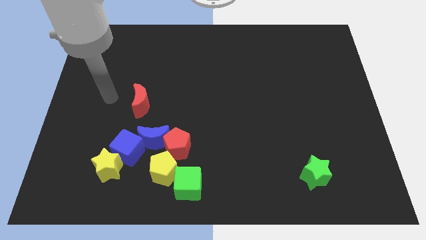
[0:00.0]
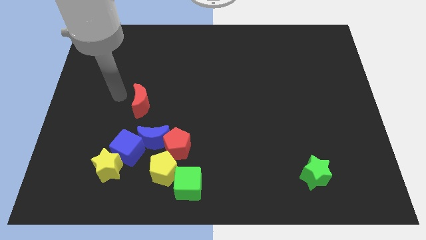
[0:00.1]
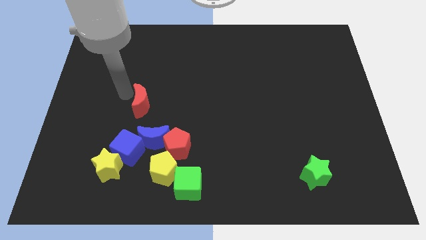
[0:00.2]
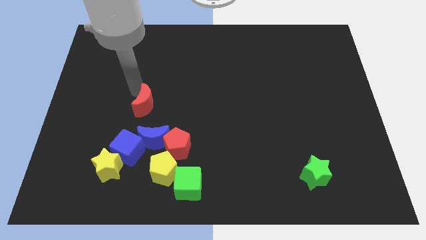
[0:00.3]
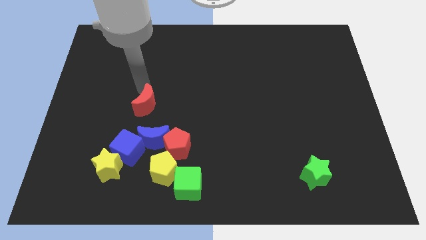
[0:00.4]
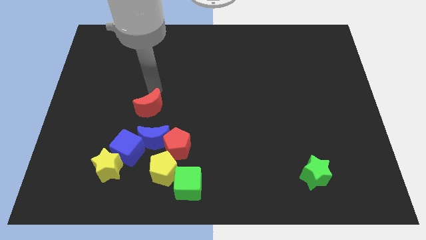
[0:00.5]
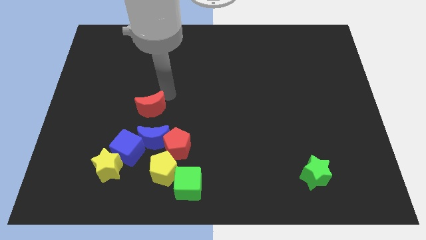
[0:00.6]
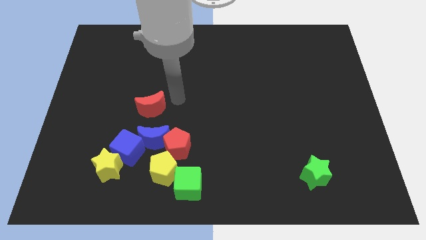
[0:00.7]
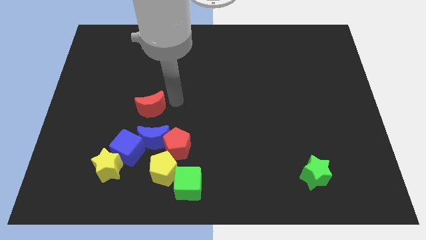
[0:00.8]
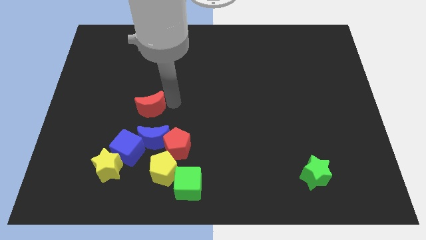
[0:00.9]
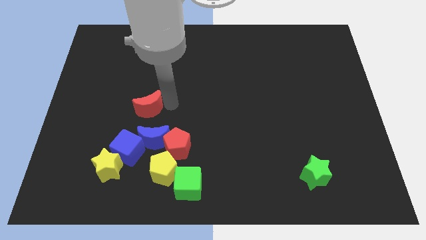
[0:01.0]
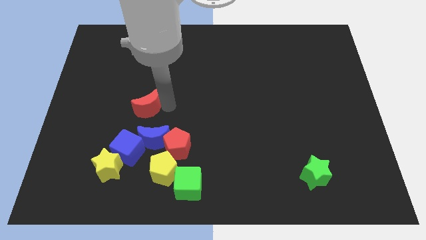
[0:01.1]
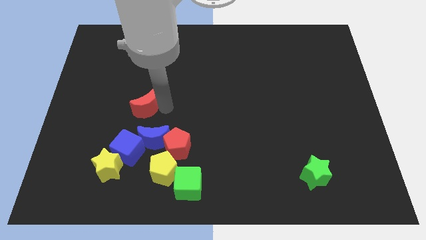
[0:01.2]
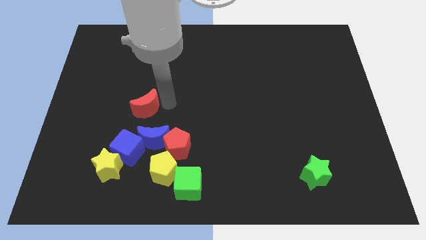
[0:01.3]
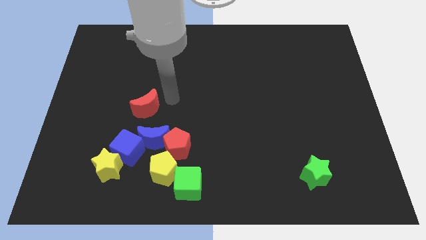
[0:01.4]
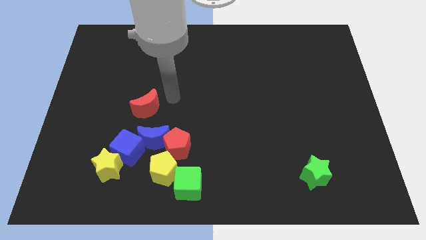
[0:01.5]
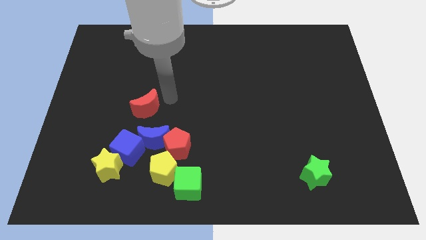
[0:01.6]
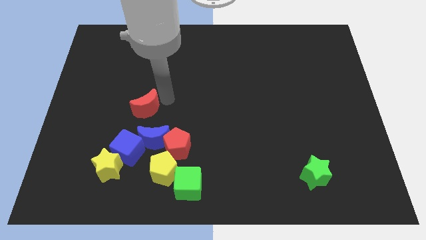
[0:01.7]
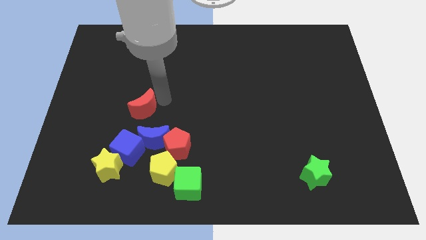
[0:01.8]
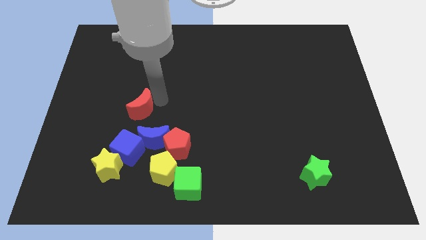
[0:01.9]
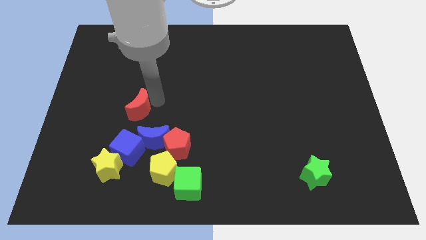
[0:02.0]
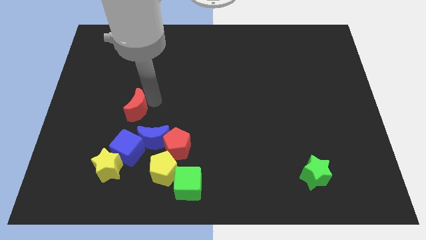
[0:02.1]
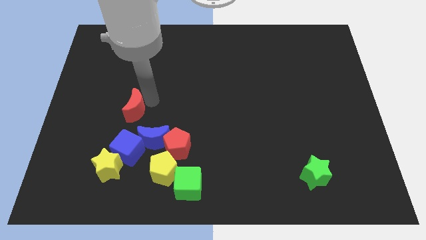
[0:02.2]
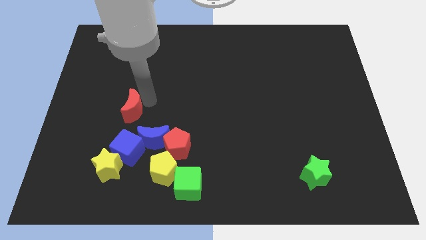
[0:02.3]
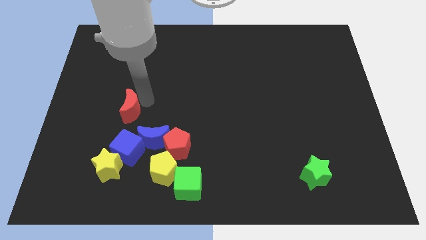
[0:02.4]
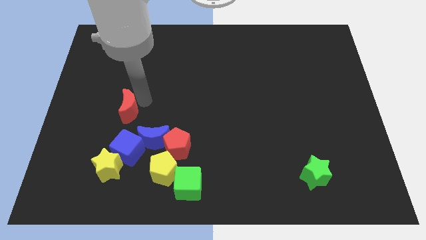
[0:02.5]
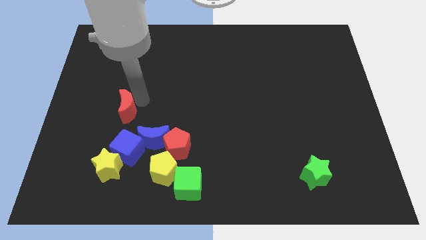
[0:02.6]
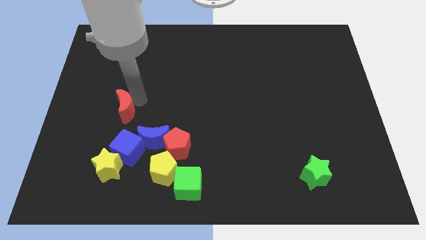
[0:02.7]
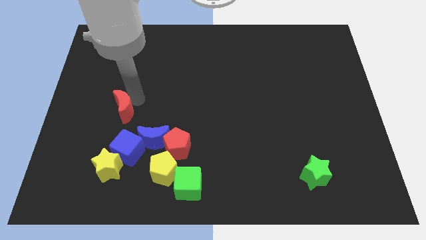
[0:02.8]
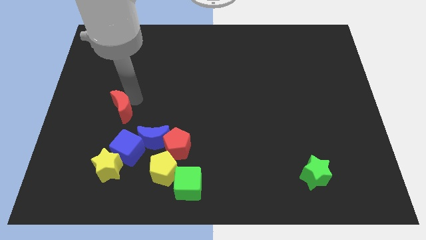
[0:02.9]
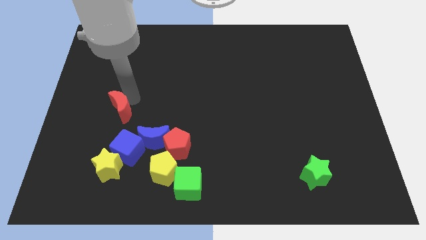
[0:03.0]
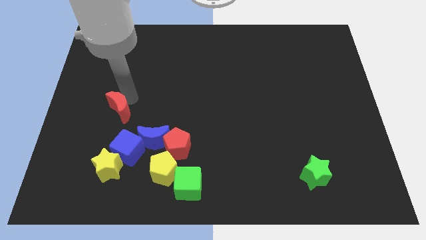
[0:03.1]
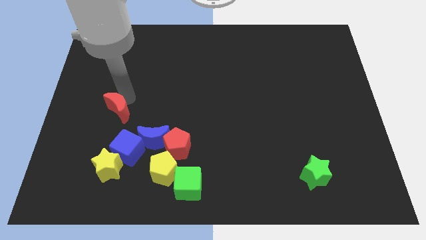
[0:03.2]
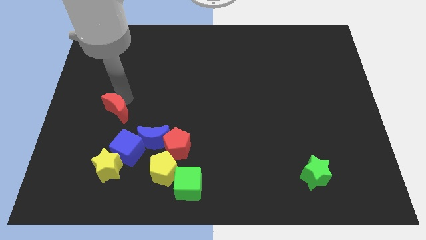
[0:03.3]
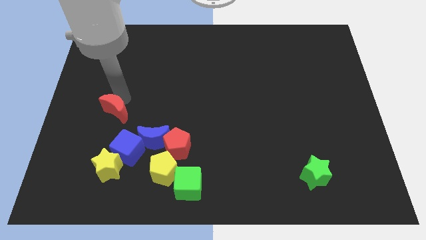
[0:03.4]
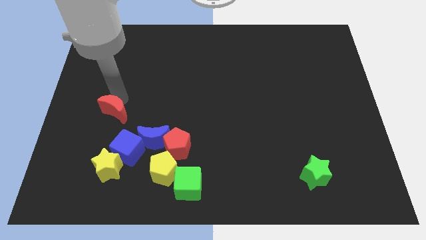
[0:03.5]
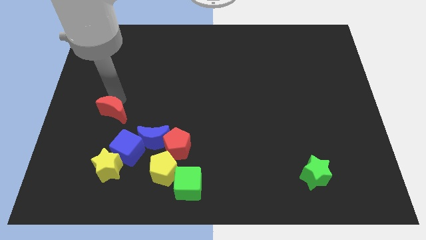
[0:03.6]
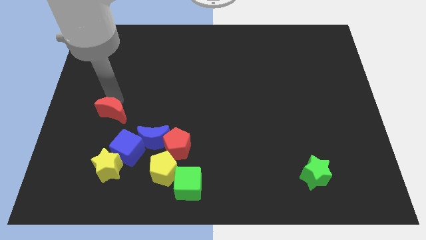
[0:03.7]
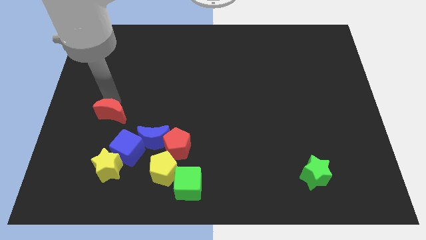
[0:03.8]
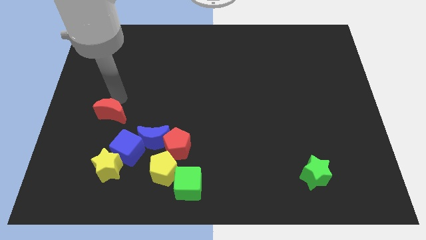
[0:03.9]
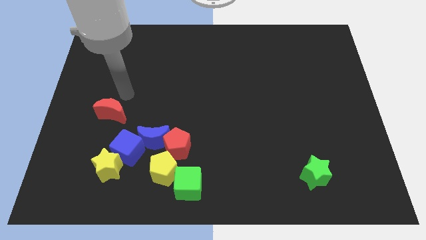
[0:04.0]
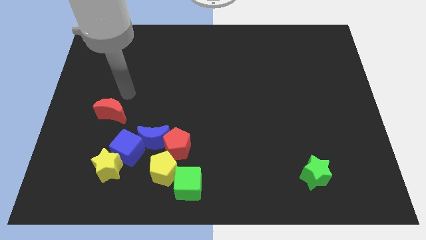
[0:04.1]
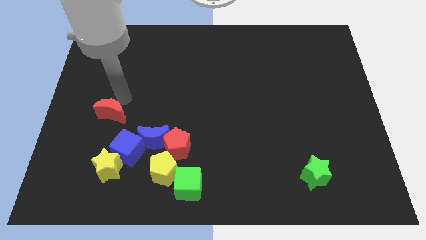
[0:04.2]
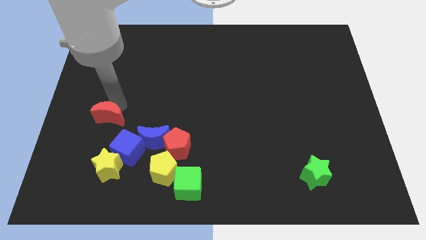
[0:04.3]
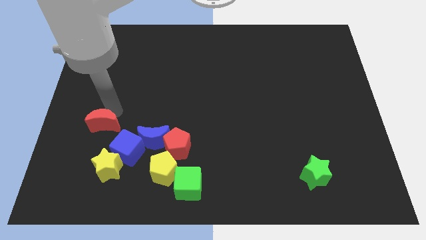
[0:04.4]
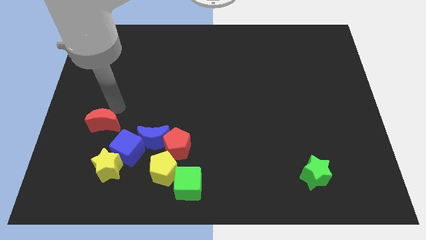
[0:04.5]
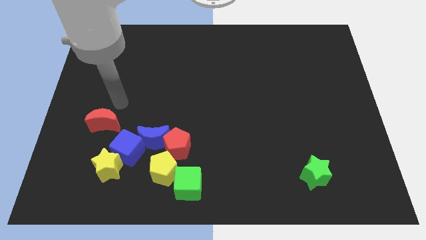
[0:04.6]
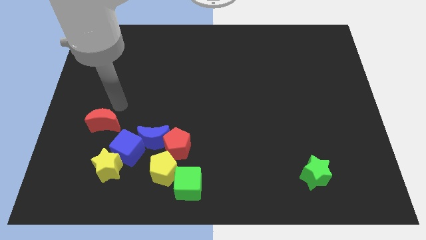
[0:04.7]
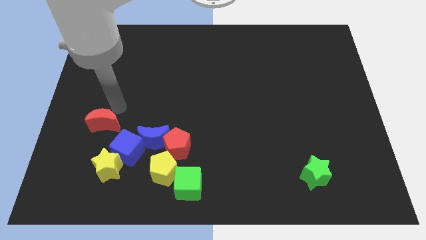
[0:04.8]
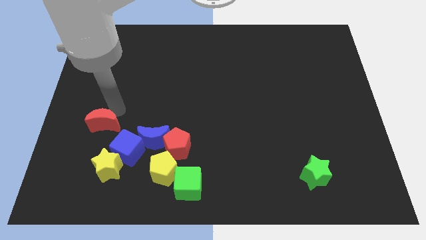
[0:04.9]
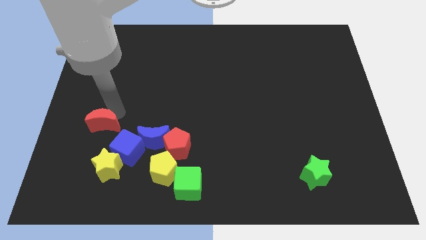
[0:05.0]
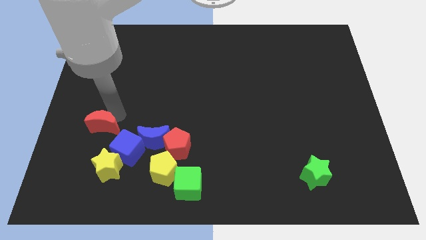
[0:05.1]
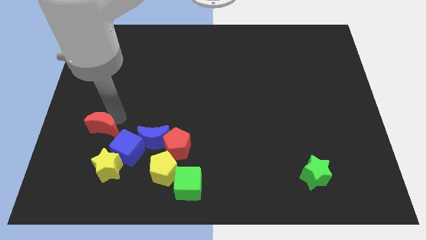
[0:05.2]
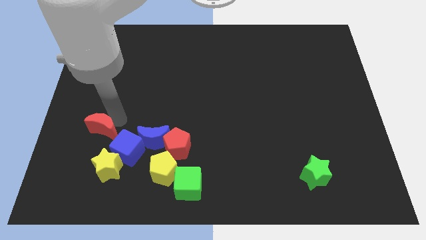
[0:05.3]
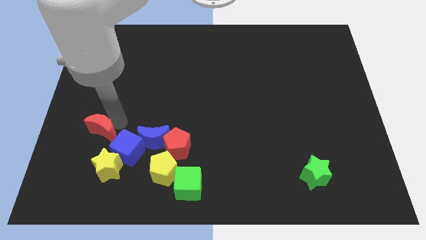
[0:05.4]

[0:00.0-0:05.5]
slide the red moon diagonally up and to the left of the yellow star

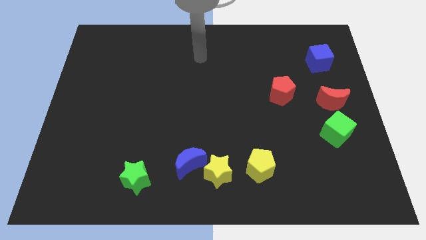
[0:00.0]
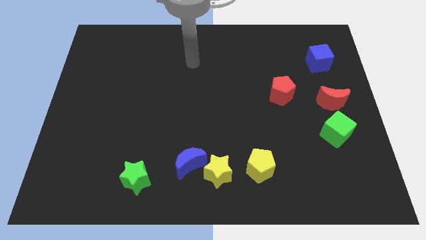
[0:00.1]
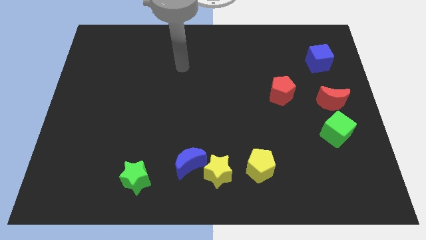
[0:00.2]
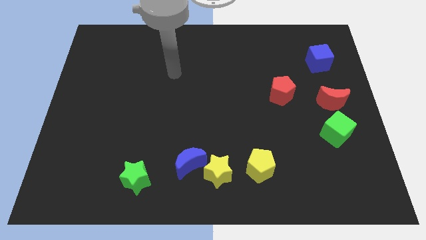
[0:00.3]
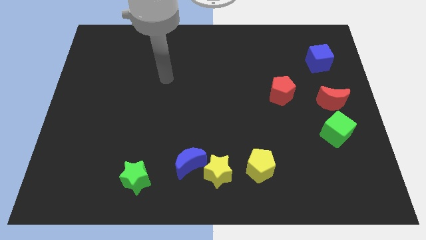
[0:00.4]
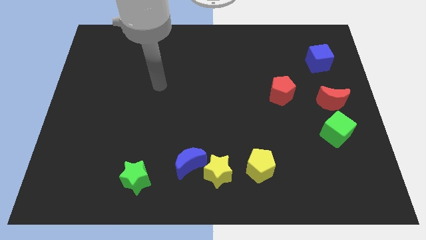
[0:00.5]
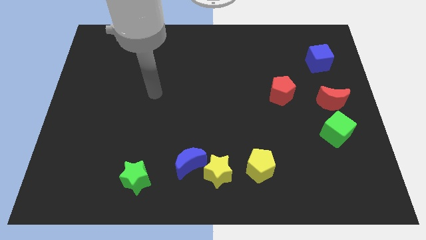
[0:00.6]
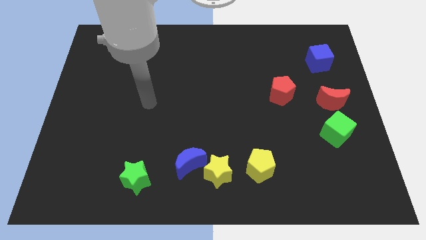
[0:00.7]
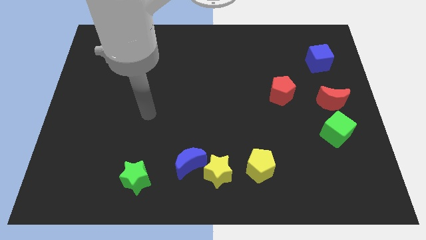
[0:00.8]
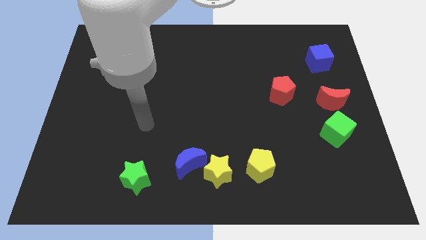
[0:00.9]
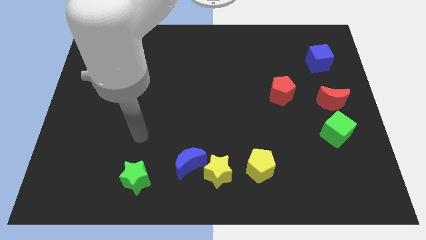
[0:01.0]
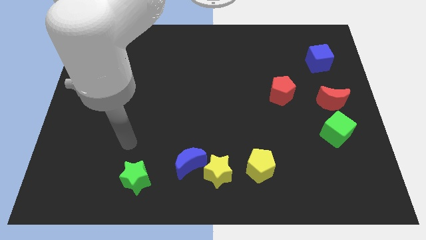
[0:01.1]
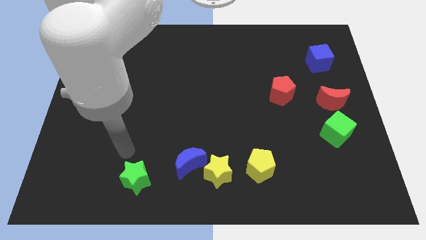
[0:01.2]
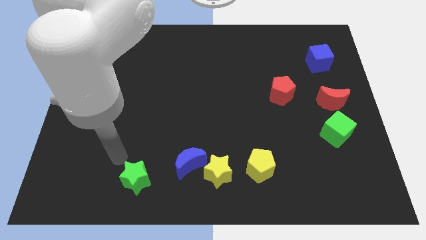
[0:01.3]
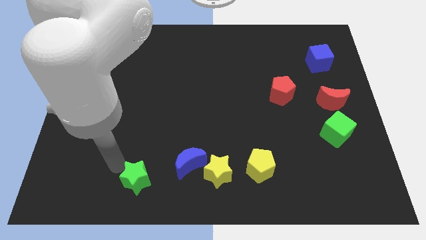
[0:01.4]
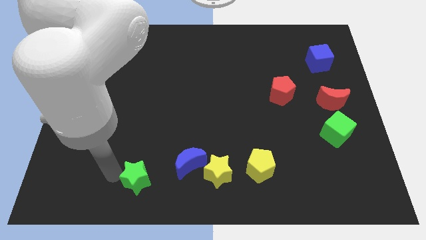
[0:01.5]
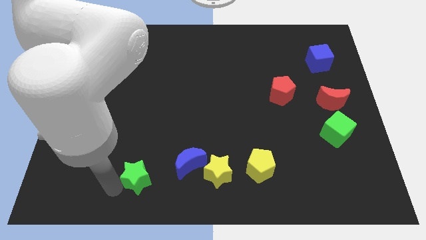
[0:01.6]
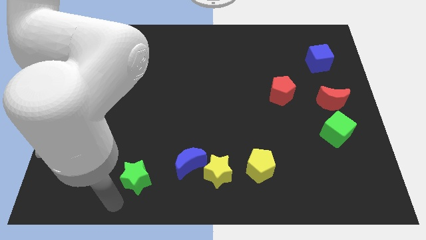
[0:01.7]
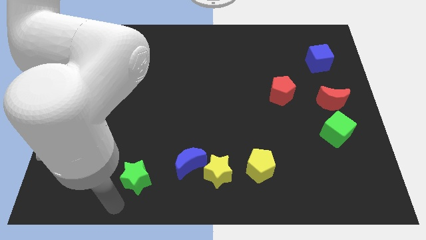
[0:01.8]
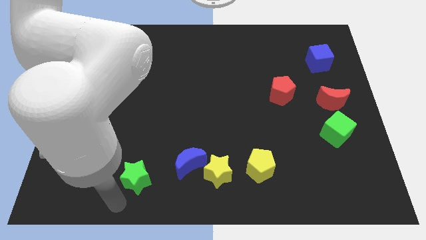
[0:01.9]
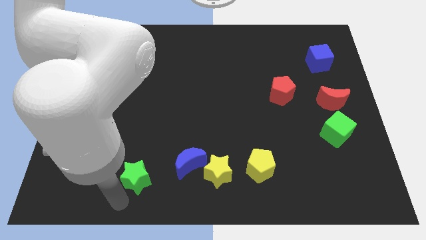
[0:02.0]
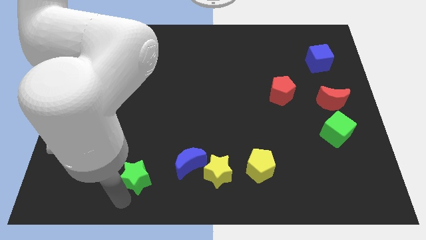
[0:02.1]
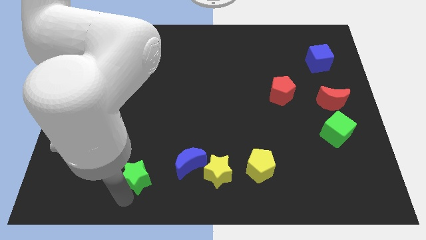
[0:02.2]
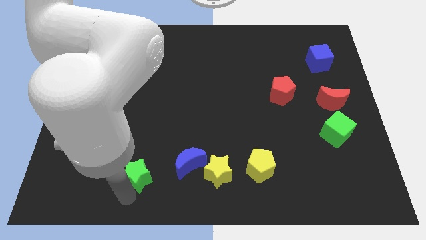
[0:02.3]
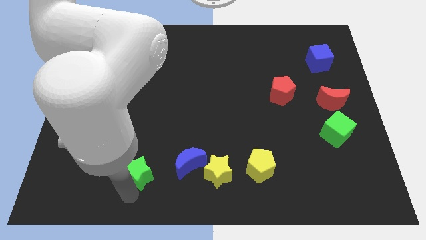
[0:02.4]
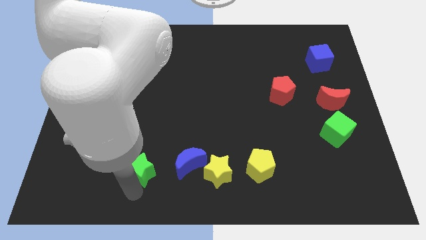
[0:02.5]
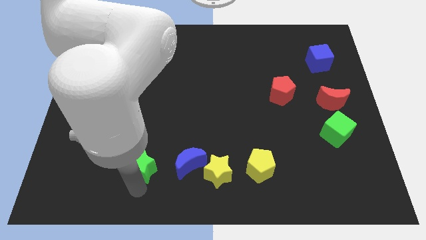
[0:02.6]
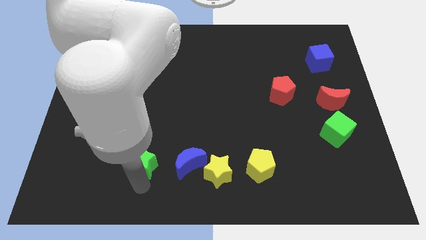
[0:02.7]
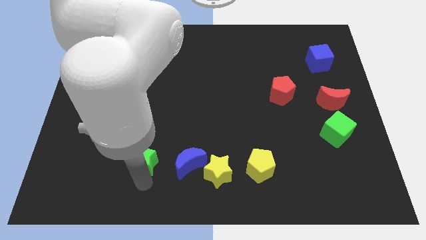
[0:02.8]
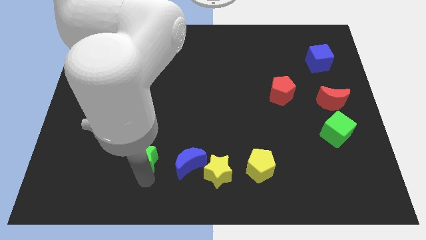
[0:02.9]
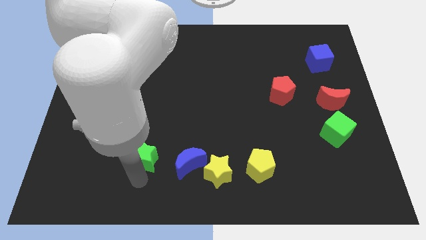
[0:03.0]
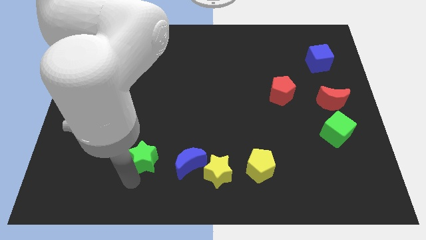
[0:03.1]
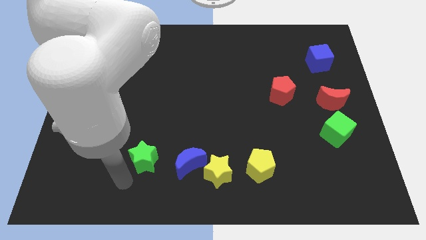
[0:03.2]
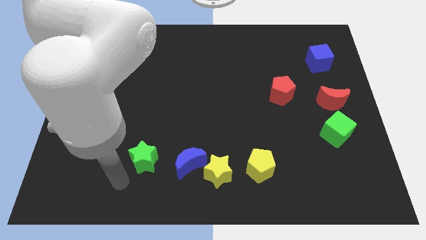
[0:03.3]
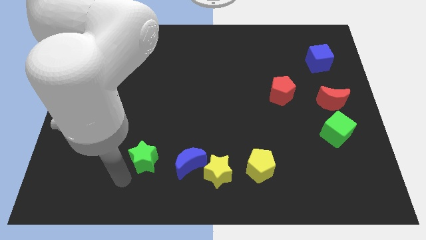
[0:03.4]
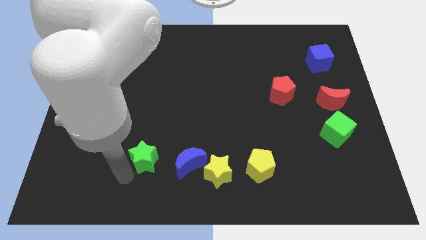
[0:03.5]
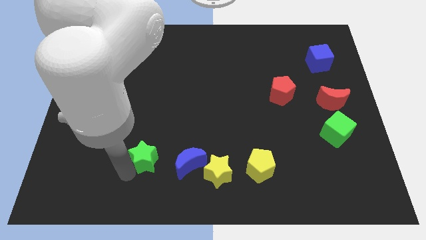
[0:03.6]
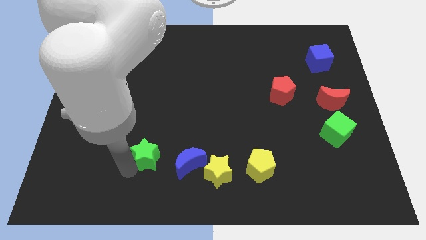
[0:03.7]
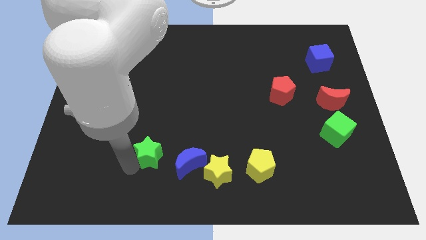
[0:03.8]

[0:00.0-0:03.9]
push the green star to the top left of the blue moon
